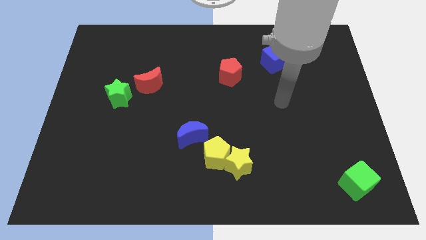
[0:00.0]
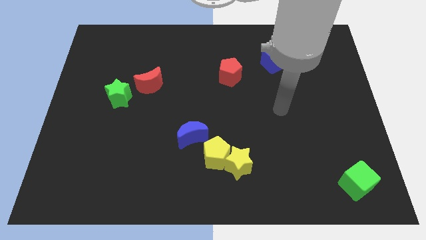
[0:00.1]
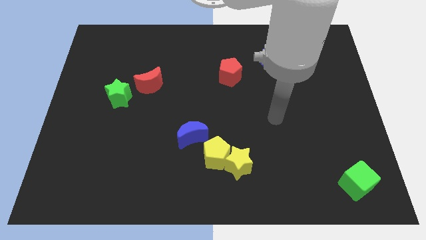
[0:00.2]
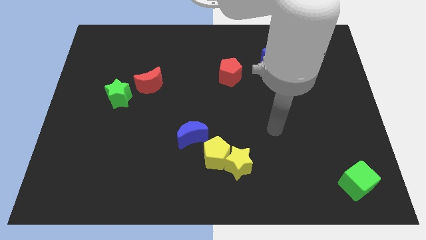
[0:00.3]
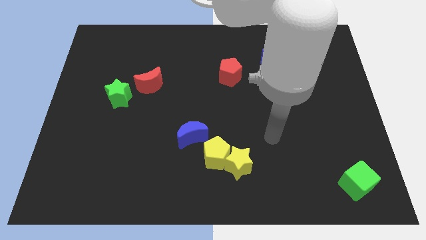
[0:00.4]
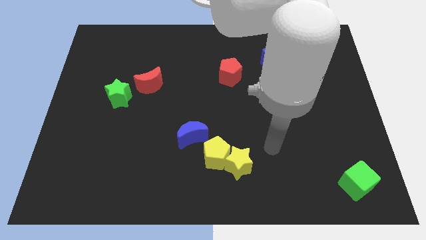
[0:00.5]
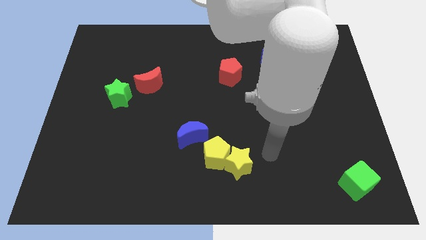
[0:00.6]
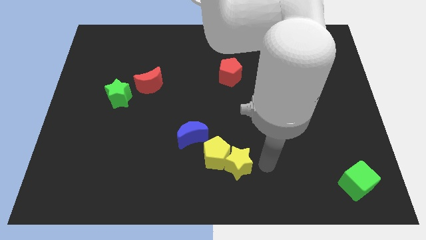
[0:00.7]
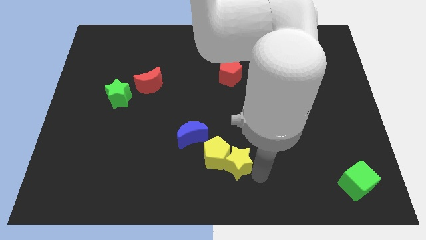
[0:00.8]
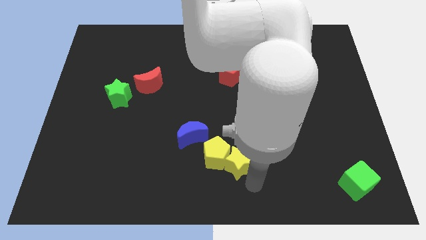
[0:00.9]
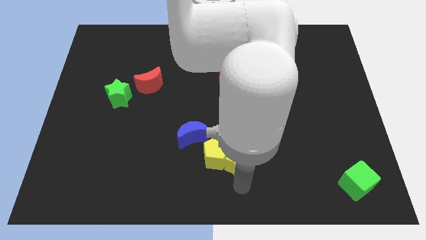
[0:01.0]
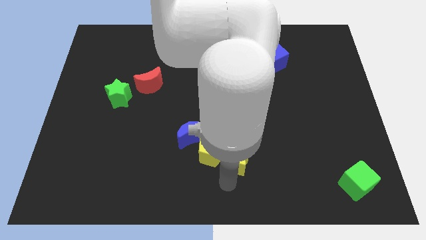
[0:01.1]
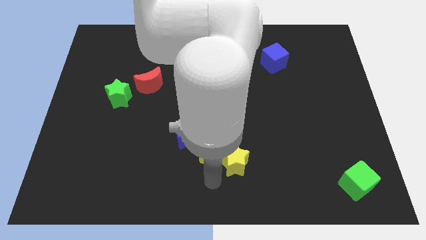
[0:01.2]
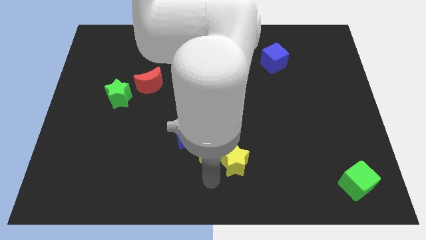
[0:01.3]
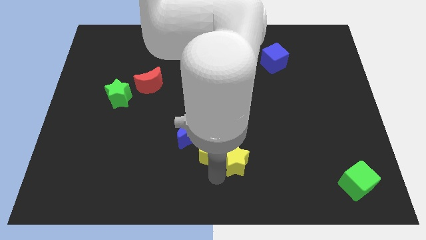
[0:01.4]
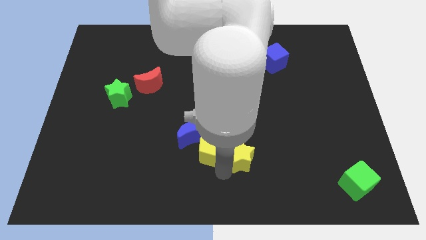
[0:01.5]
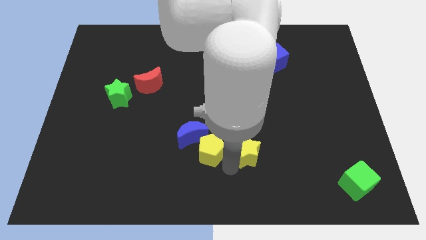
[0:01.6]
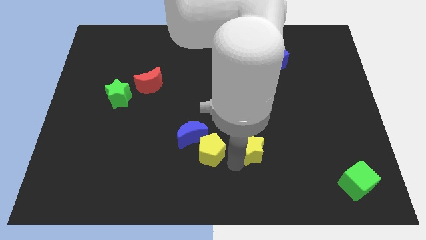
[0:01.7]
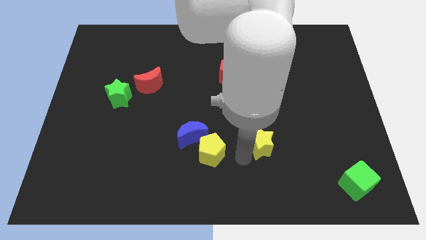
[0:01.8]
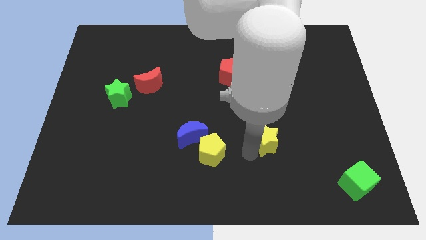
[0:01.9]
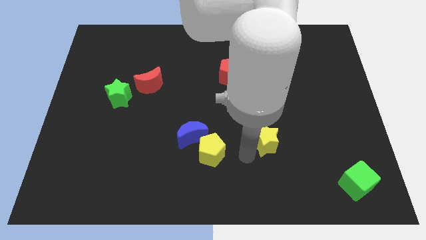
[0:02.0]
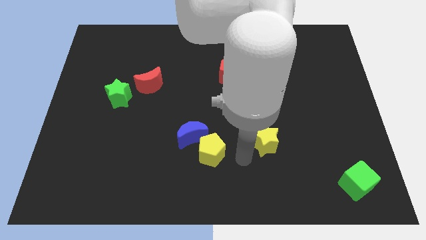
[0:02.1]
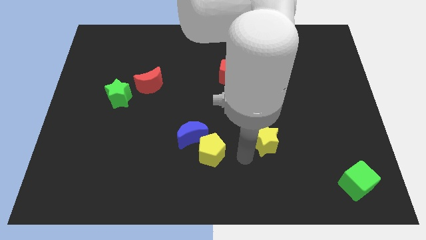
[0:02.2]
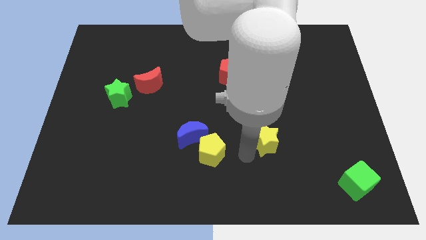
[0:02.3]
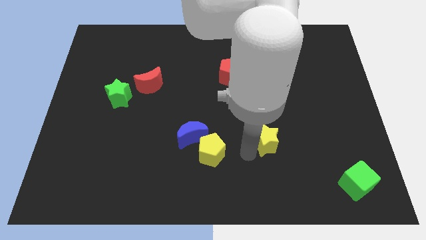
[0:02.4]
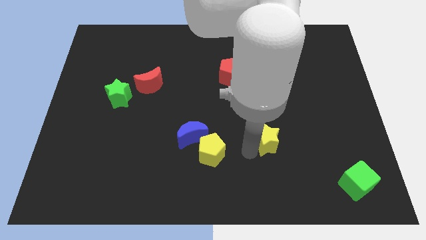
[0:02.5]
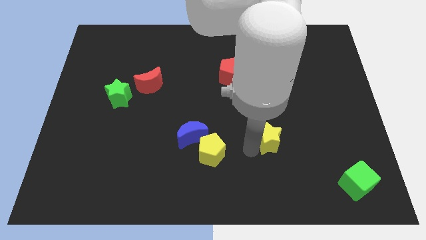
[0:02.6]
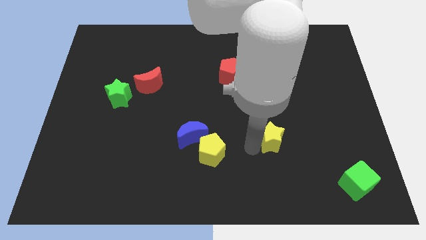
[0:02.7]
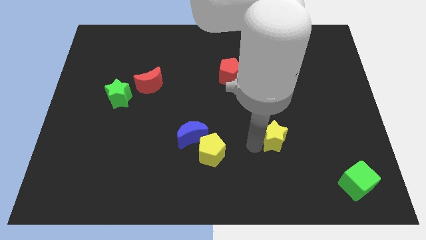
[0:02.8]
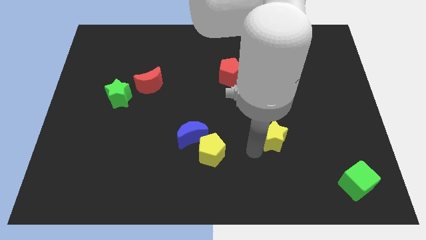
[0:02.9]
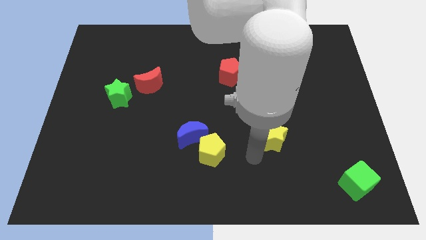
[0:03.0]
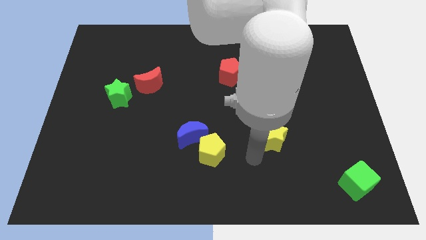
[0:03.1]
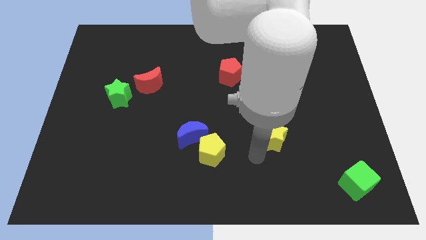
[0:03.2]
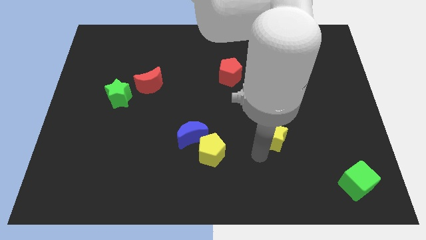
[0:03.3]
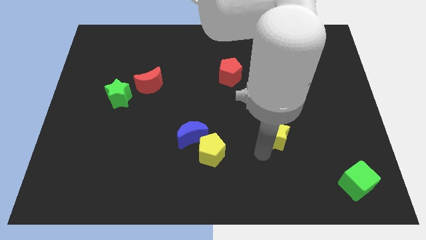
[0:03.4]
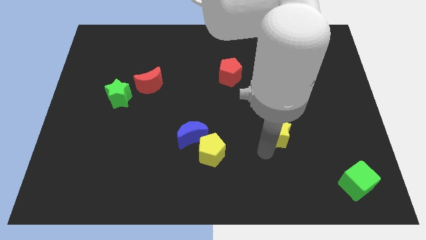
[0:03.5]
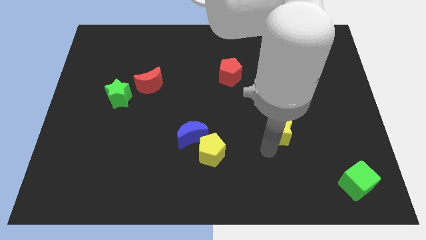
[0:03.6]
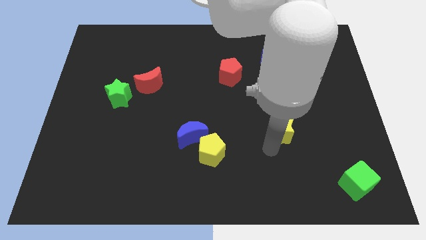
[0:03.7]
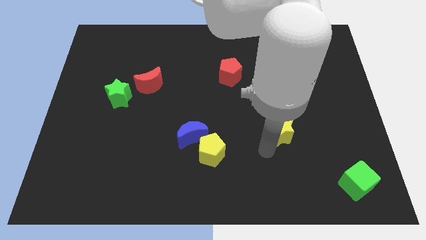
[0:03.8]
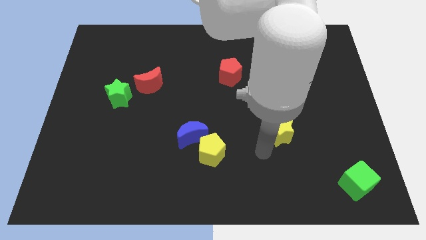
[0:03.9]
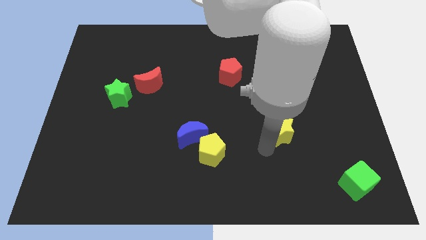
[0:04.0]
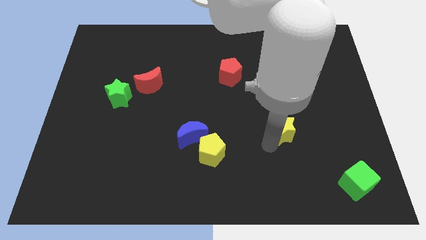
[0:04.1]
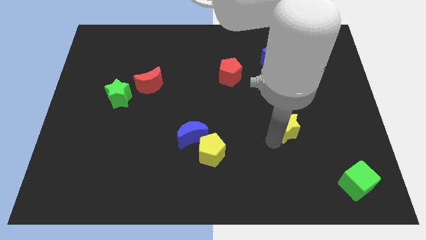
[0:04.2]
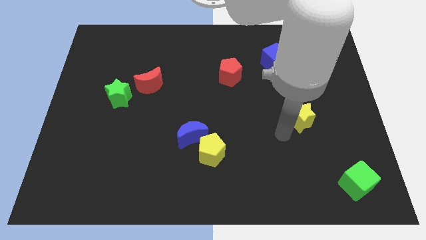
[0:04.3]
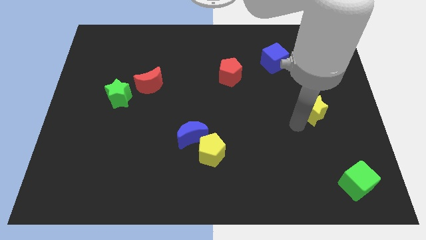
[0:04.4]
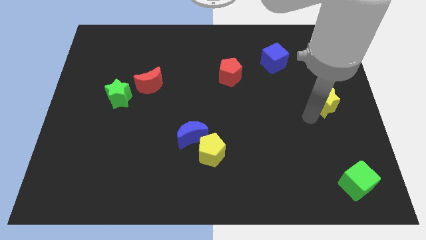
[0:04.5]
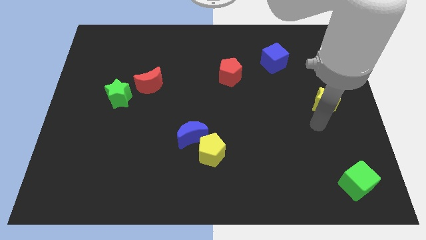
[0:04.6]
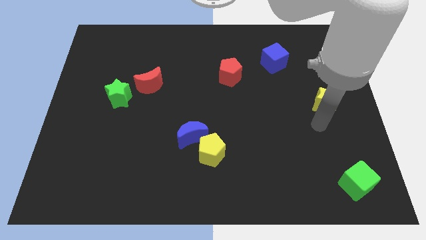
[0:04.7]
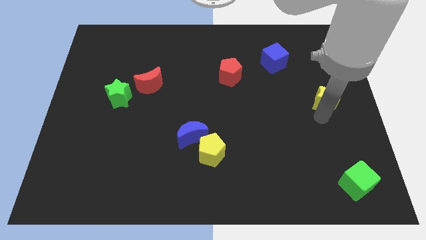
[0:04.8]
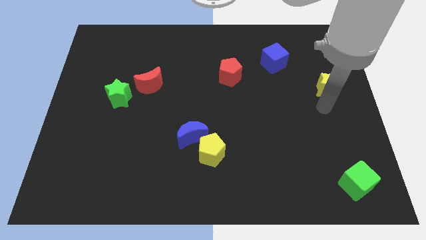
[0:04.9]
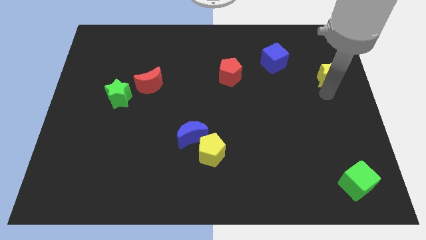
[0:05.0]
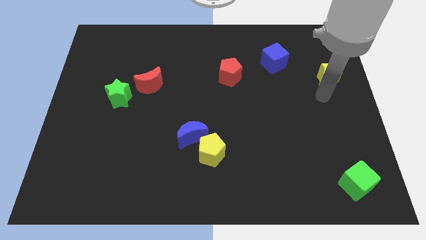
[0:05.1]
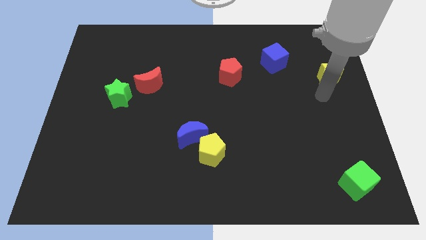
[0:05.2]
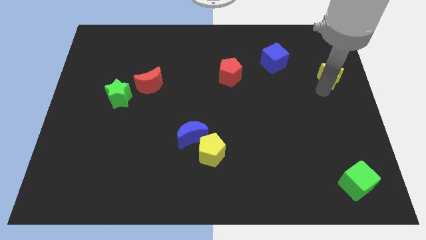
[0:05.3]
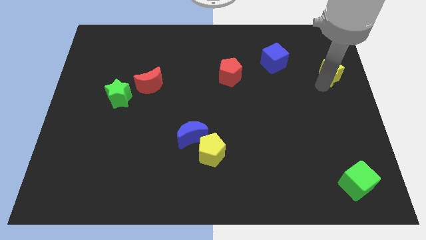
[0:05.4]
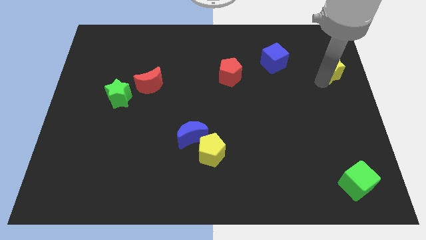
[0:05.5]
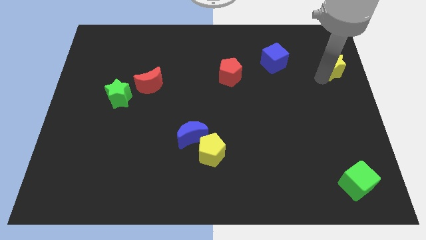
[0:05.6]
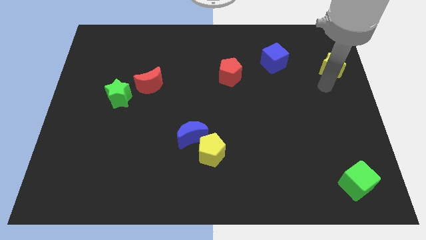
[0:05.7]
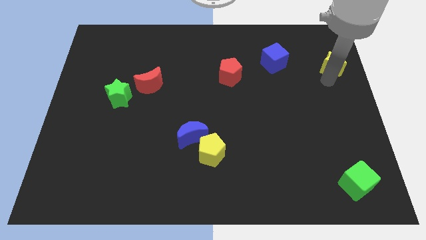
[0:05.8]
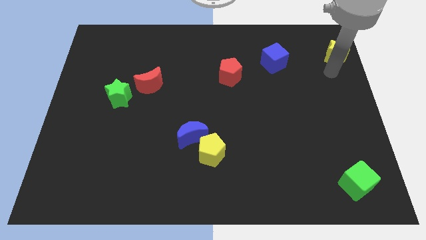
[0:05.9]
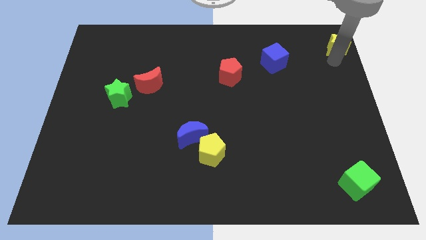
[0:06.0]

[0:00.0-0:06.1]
move the yellow star to the upper right corner
